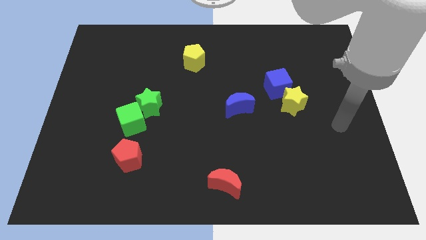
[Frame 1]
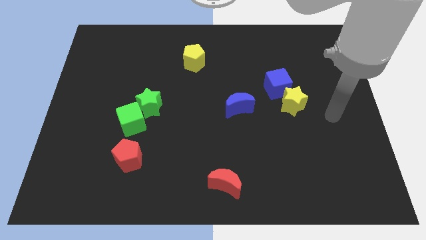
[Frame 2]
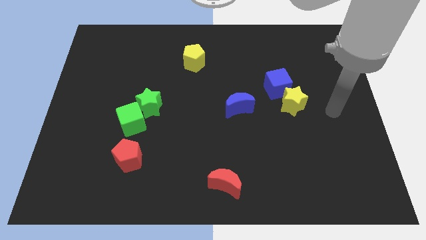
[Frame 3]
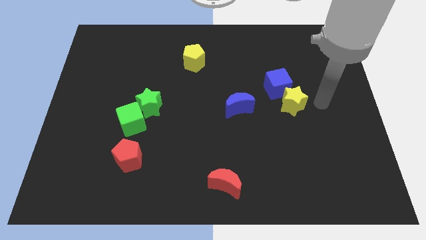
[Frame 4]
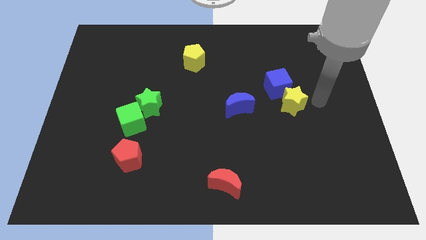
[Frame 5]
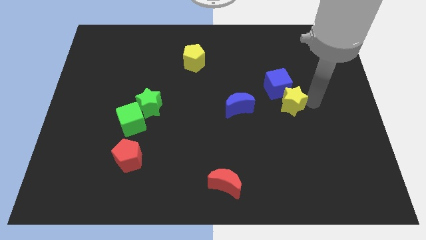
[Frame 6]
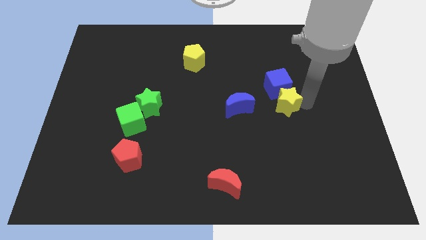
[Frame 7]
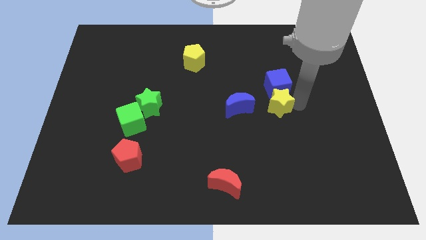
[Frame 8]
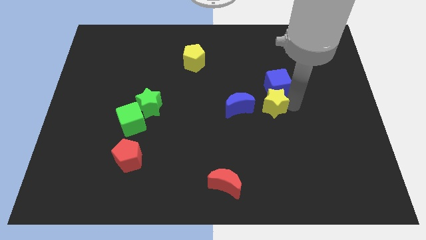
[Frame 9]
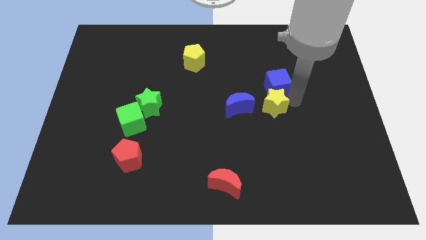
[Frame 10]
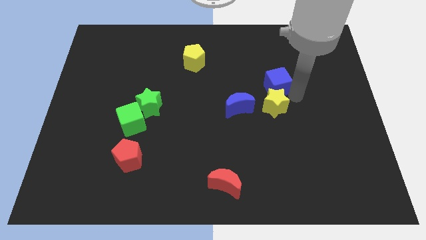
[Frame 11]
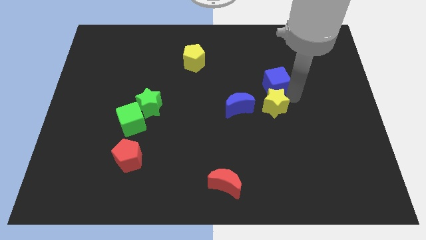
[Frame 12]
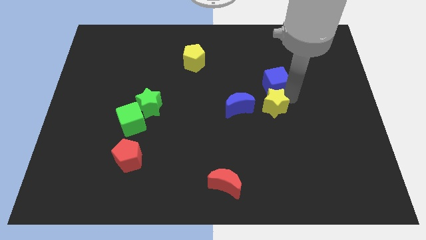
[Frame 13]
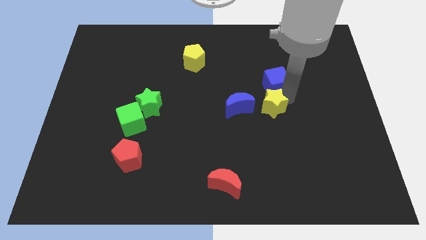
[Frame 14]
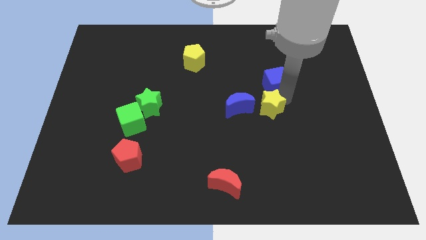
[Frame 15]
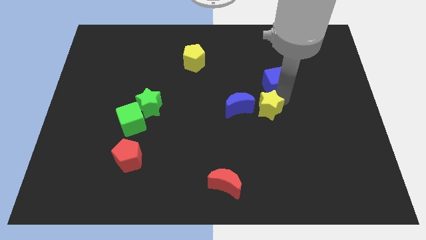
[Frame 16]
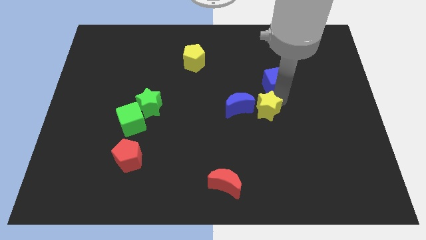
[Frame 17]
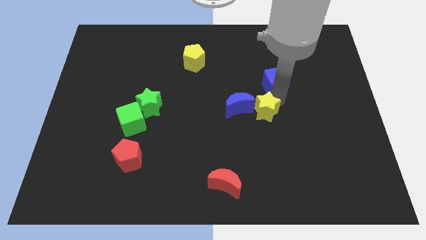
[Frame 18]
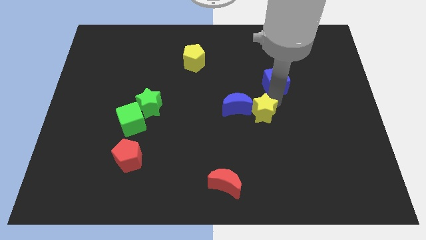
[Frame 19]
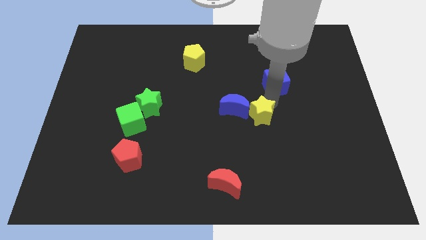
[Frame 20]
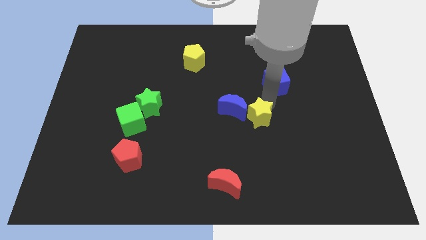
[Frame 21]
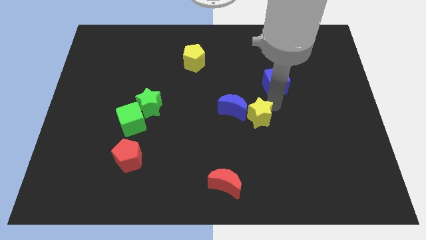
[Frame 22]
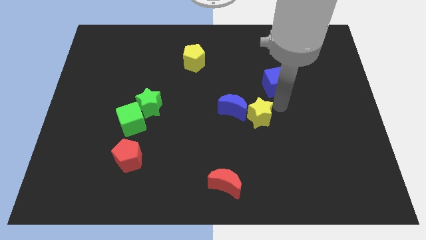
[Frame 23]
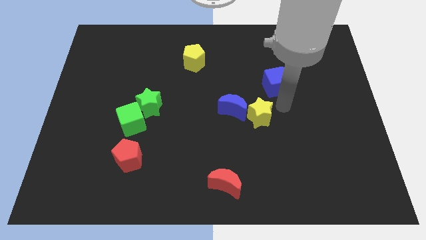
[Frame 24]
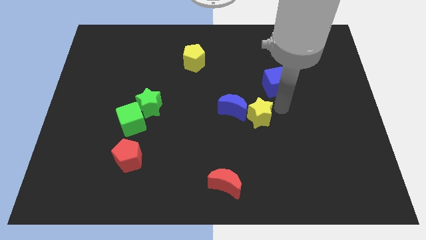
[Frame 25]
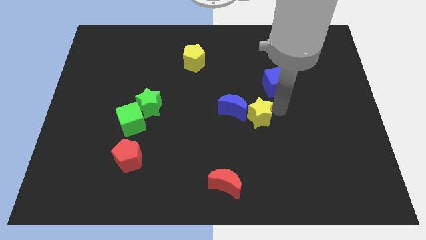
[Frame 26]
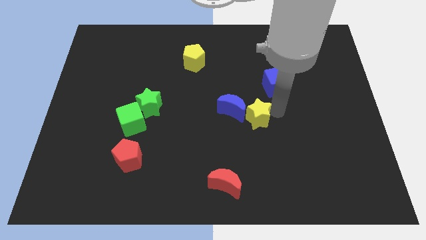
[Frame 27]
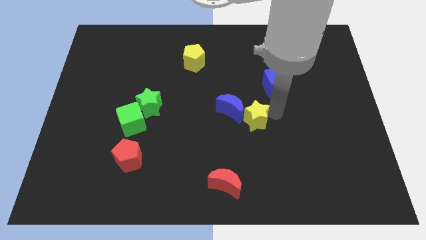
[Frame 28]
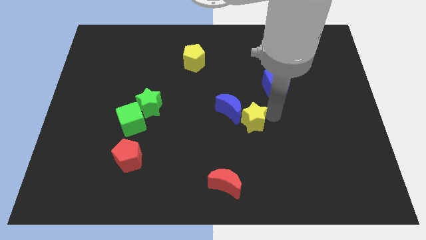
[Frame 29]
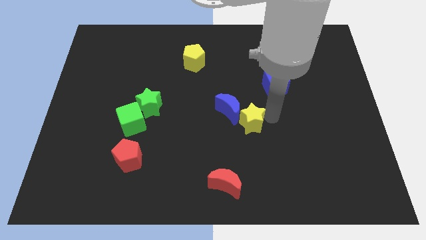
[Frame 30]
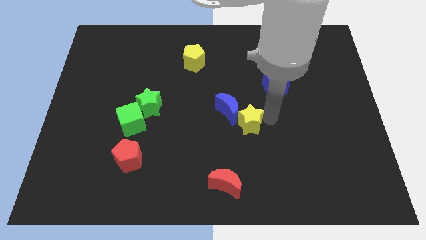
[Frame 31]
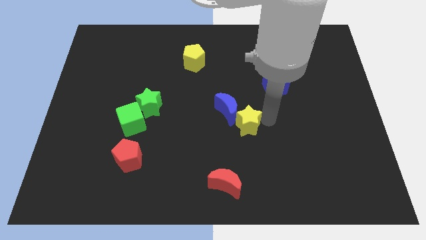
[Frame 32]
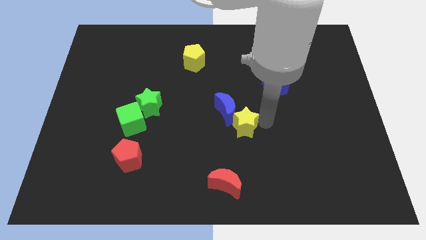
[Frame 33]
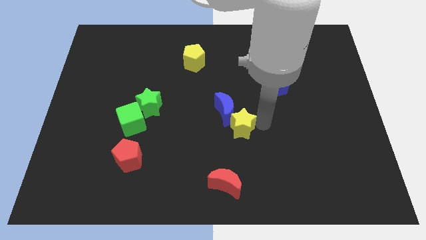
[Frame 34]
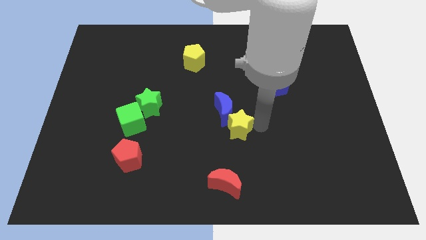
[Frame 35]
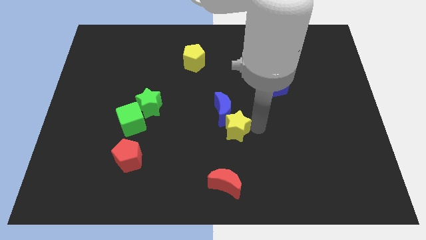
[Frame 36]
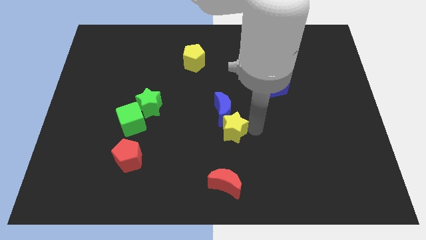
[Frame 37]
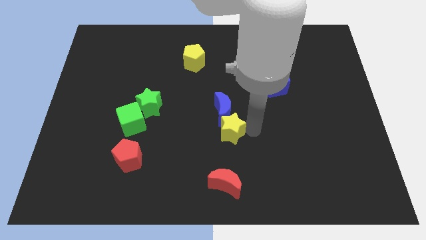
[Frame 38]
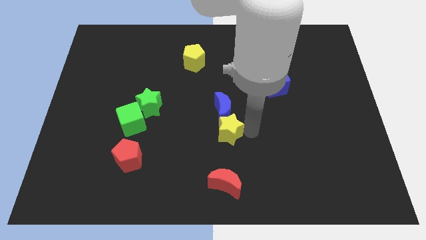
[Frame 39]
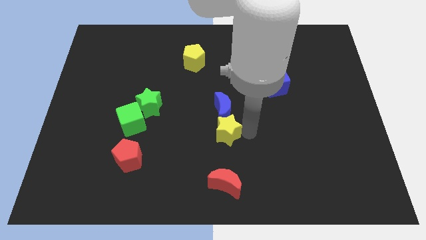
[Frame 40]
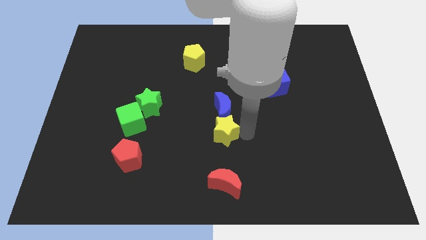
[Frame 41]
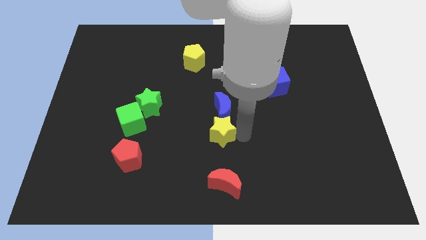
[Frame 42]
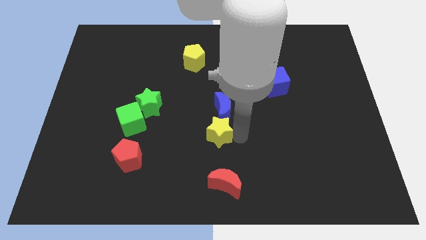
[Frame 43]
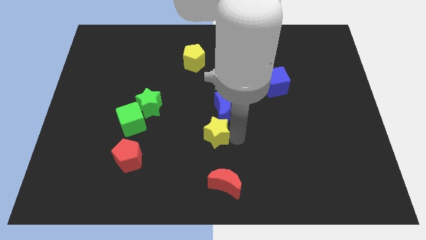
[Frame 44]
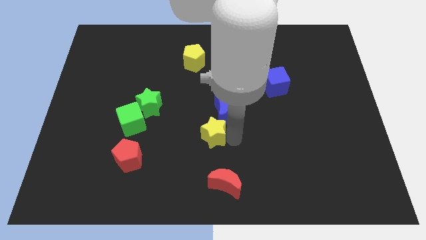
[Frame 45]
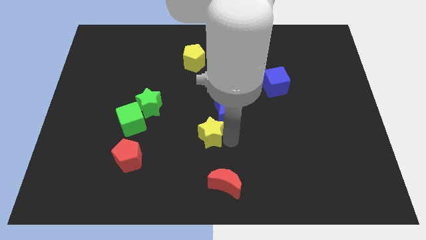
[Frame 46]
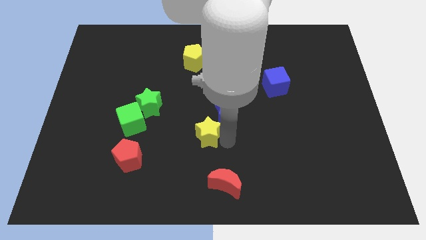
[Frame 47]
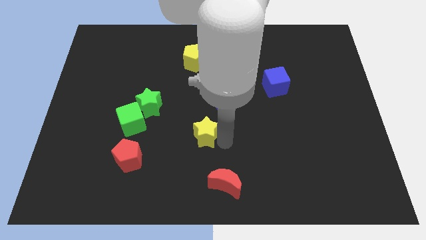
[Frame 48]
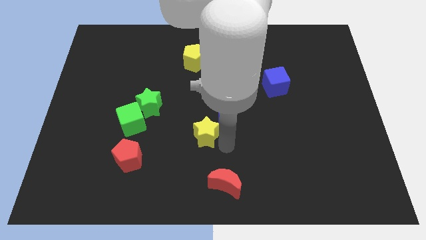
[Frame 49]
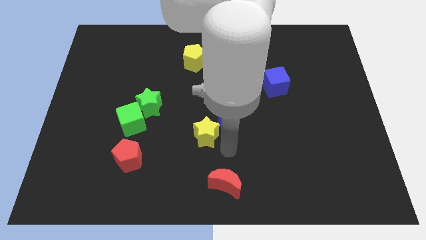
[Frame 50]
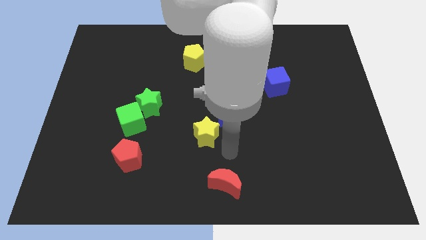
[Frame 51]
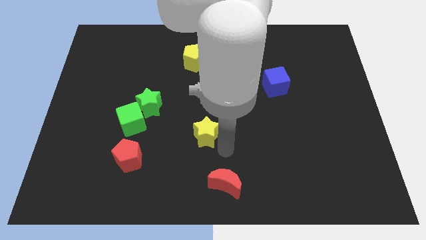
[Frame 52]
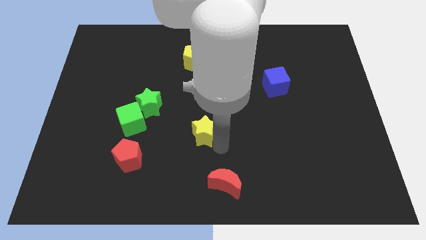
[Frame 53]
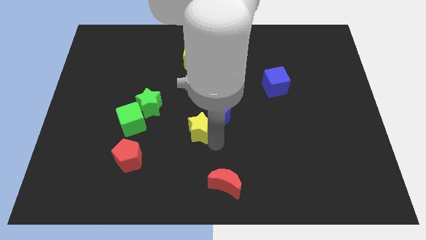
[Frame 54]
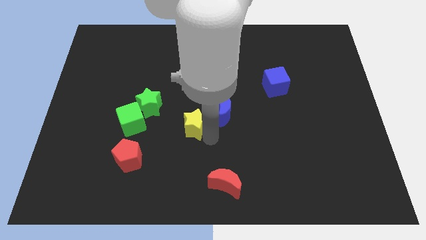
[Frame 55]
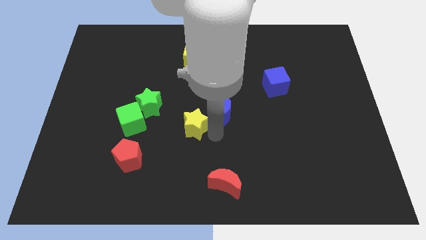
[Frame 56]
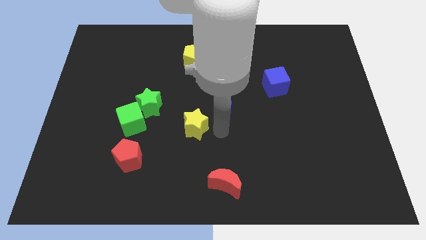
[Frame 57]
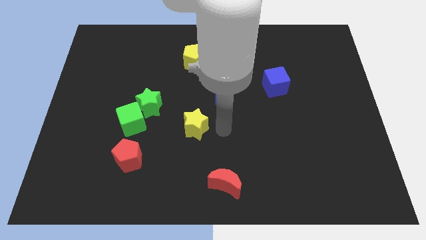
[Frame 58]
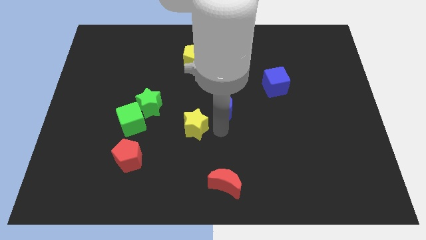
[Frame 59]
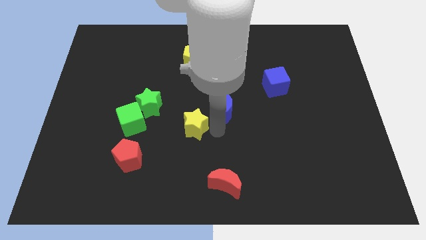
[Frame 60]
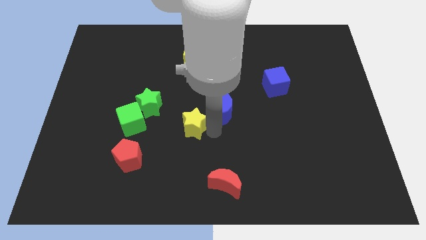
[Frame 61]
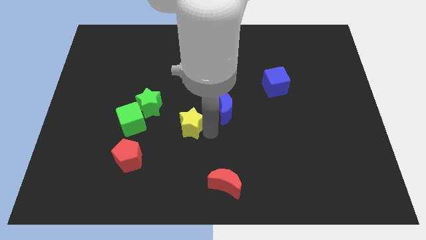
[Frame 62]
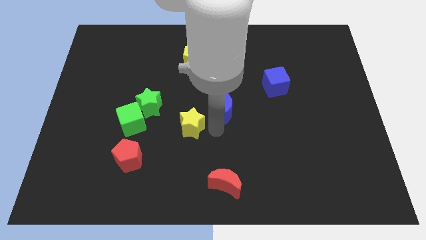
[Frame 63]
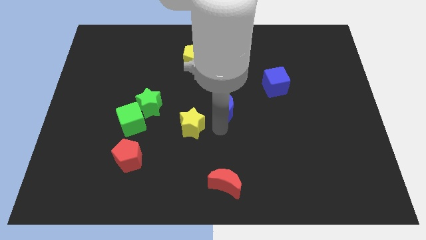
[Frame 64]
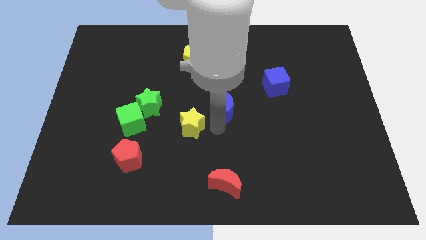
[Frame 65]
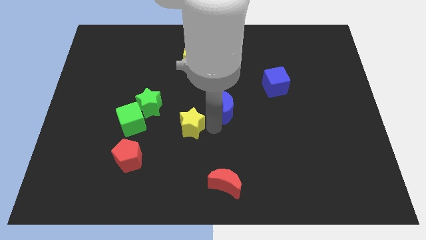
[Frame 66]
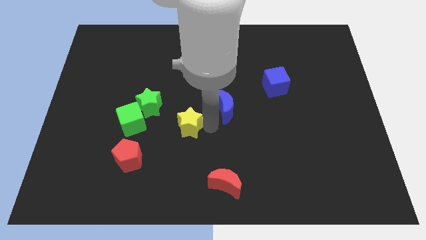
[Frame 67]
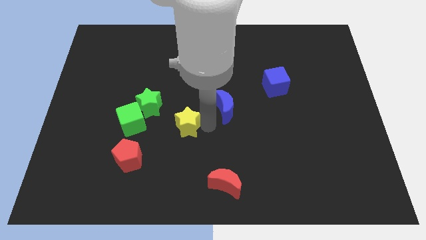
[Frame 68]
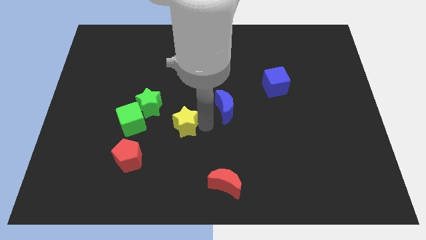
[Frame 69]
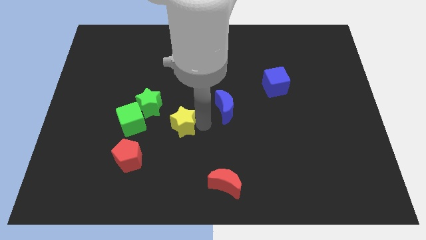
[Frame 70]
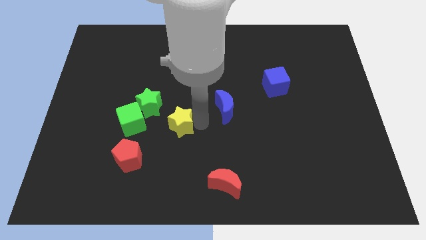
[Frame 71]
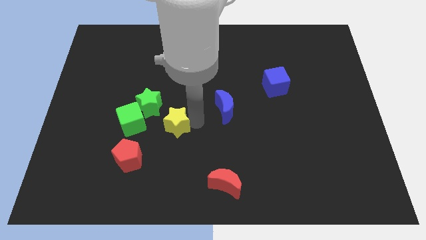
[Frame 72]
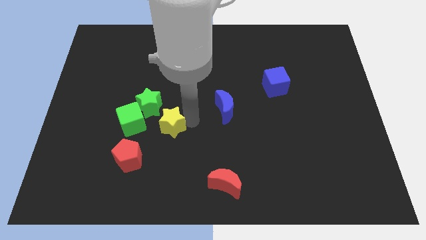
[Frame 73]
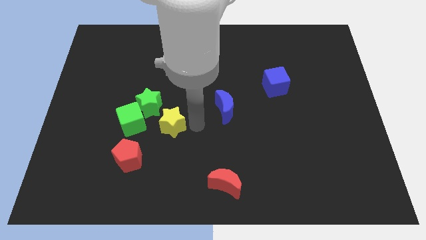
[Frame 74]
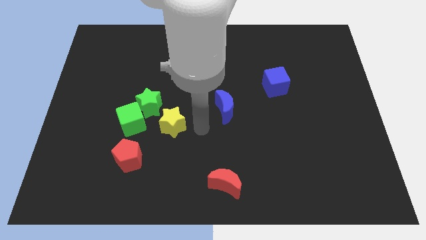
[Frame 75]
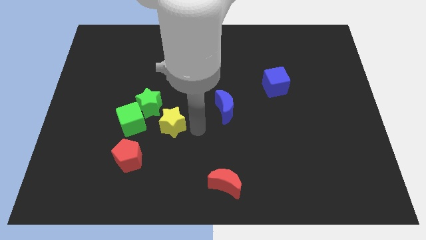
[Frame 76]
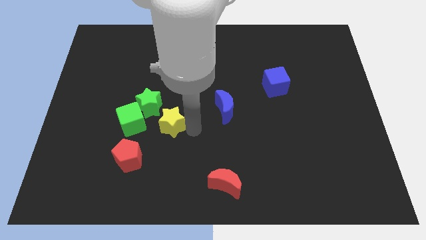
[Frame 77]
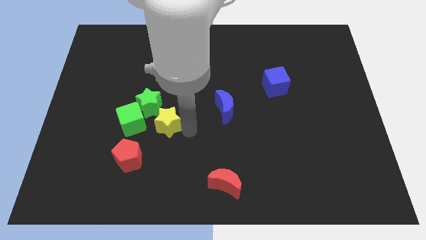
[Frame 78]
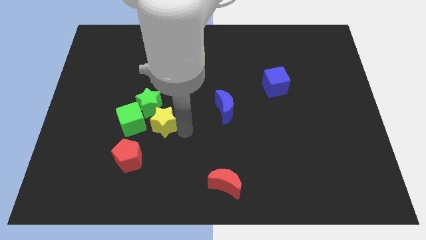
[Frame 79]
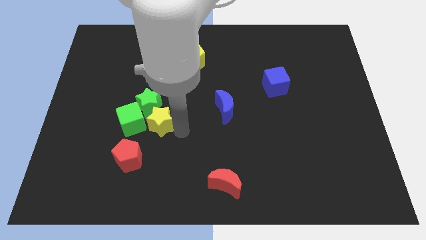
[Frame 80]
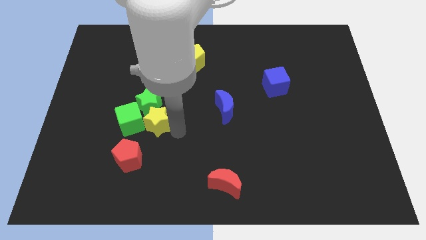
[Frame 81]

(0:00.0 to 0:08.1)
push the yellow star next to the green cube
